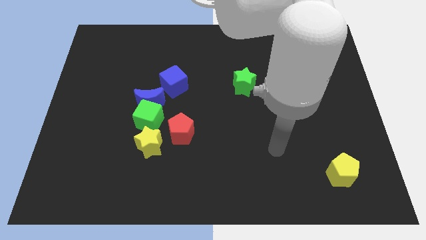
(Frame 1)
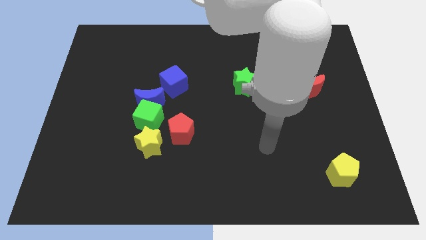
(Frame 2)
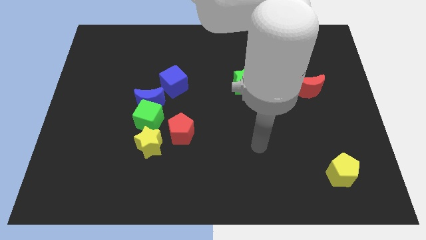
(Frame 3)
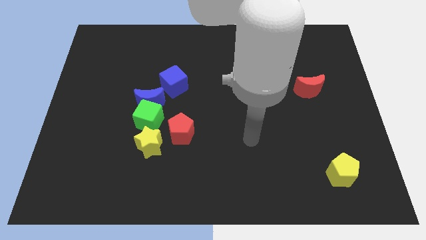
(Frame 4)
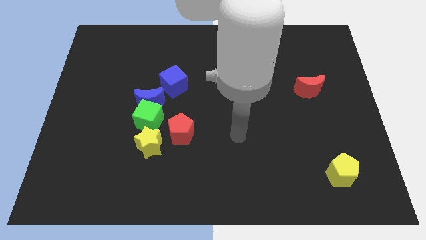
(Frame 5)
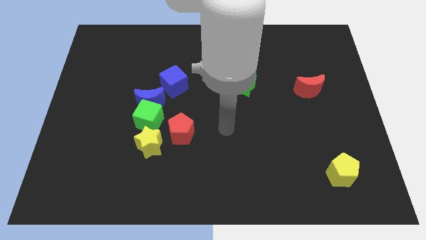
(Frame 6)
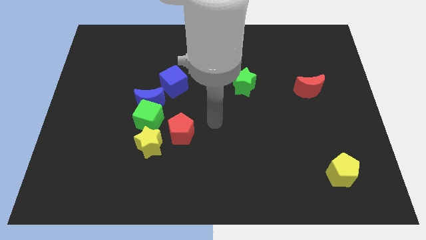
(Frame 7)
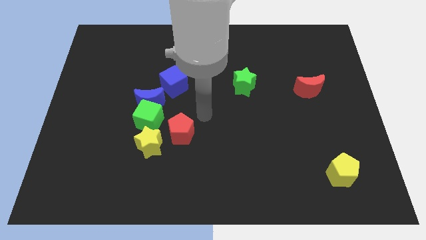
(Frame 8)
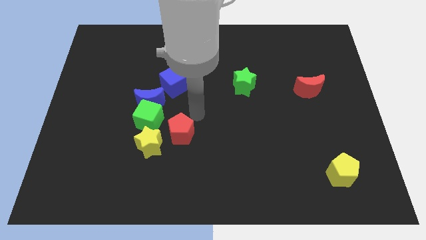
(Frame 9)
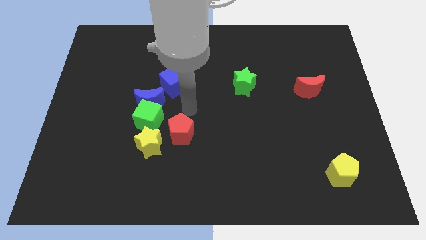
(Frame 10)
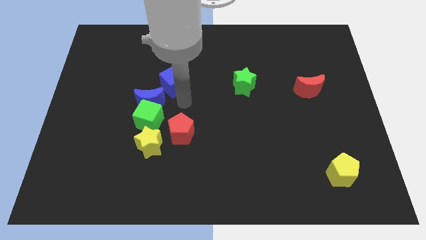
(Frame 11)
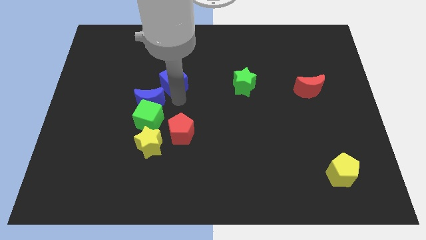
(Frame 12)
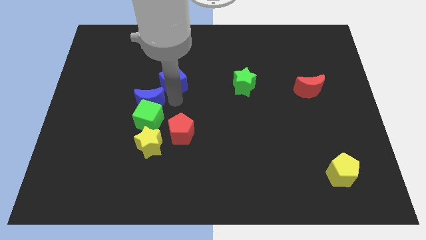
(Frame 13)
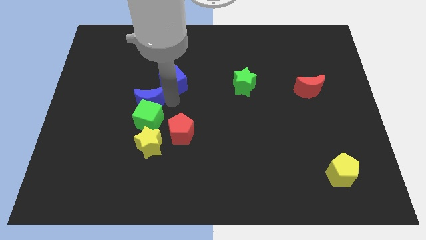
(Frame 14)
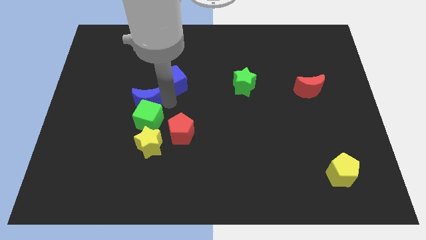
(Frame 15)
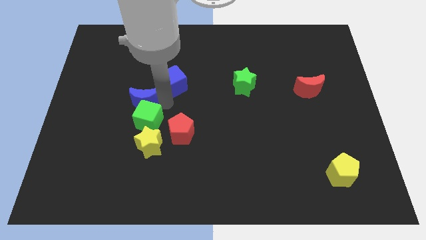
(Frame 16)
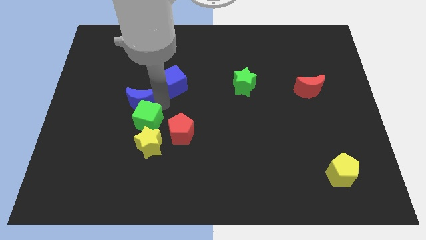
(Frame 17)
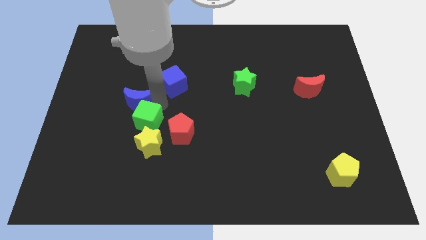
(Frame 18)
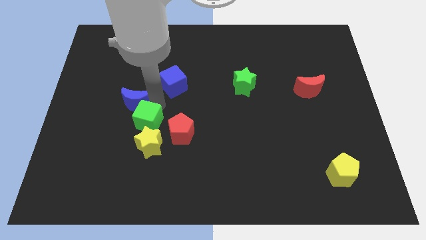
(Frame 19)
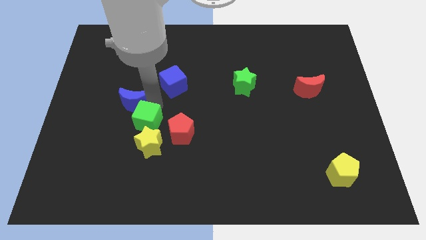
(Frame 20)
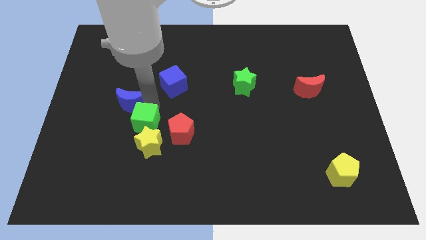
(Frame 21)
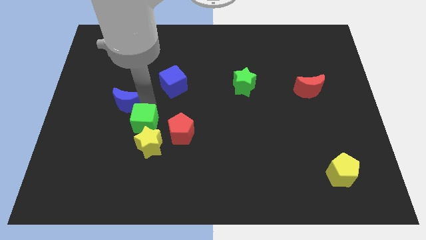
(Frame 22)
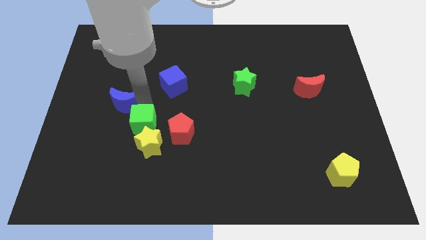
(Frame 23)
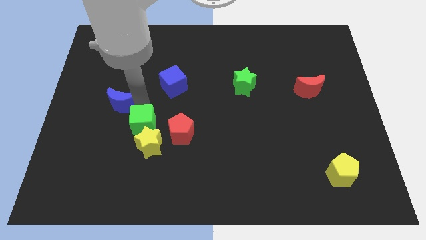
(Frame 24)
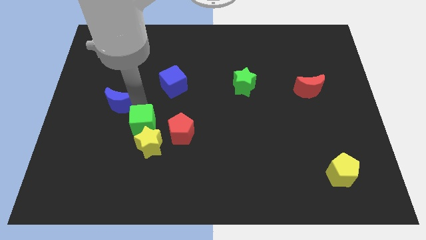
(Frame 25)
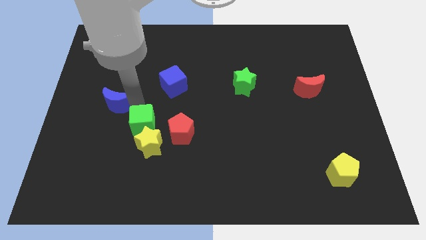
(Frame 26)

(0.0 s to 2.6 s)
separate the blue moon from the green cube and blue cube

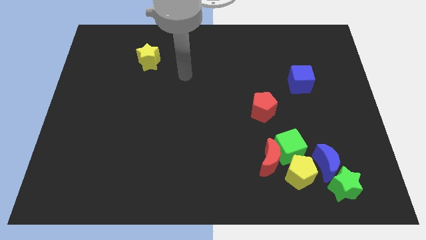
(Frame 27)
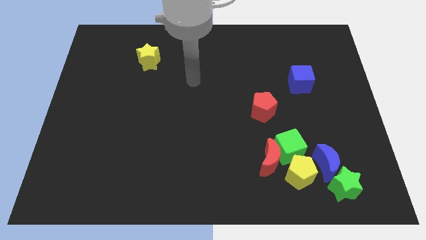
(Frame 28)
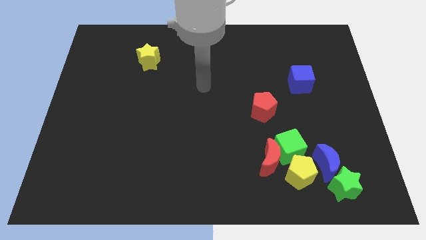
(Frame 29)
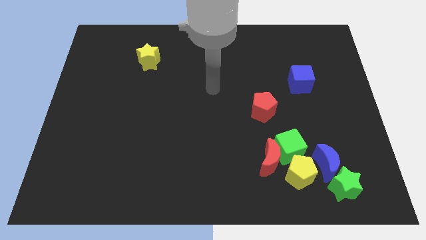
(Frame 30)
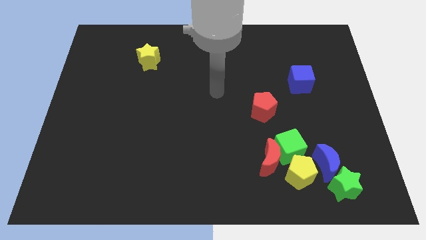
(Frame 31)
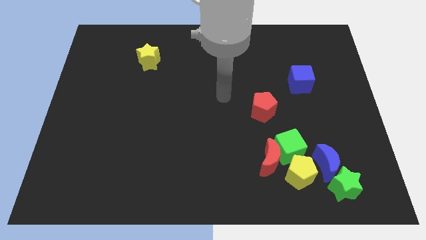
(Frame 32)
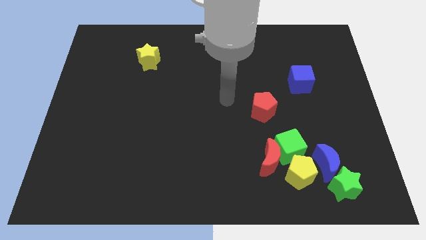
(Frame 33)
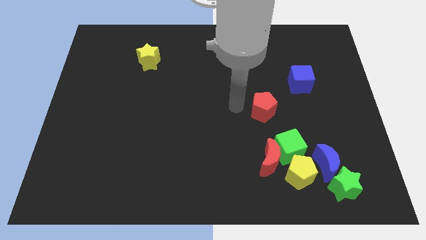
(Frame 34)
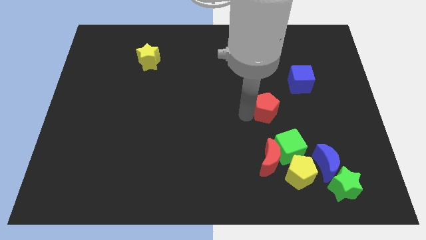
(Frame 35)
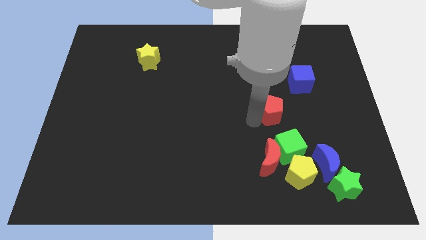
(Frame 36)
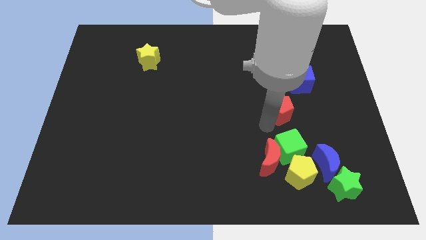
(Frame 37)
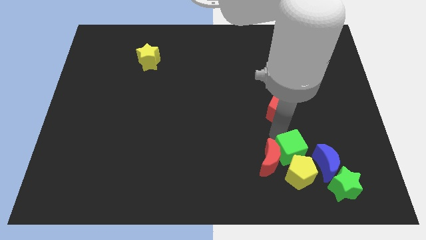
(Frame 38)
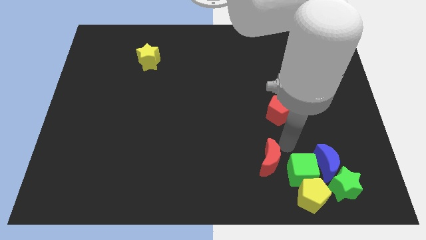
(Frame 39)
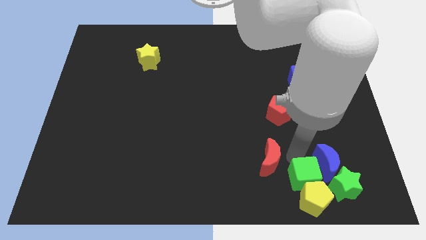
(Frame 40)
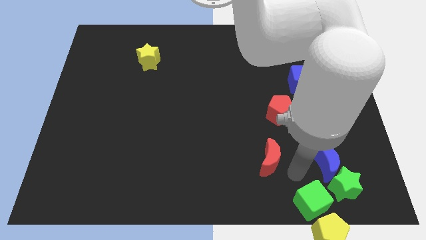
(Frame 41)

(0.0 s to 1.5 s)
move the red moon away from the green cube and yellow pentagon

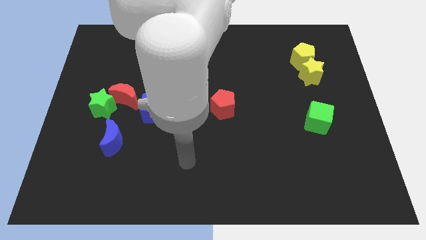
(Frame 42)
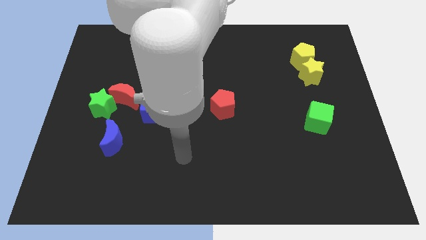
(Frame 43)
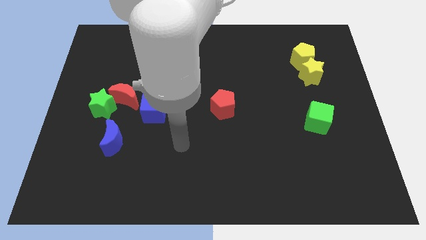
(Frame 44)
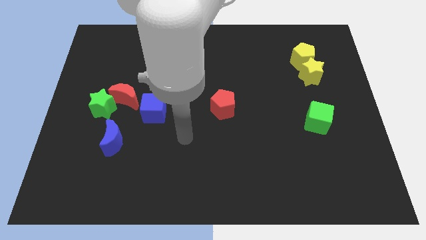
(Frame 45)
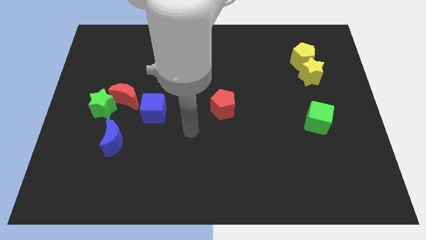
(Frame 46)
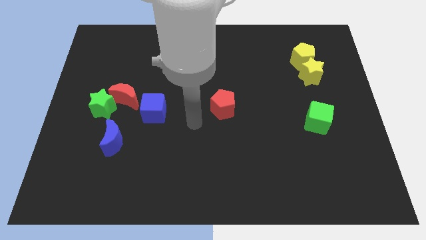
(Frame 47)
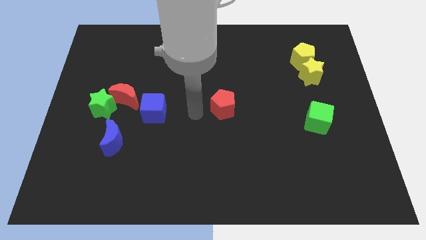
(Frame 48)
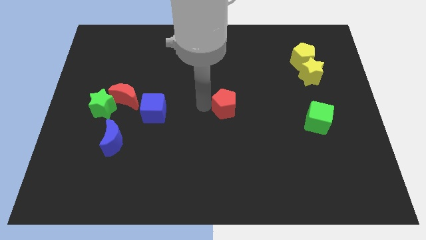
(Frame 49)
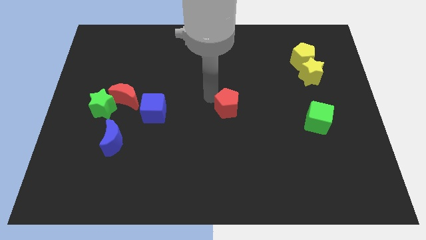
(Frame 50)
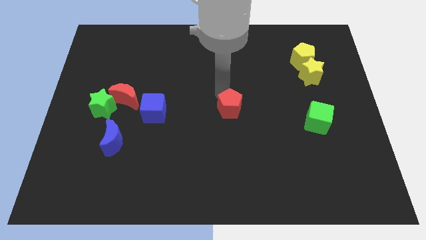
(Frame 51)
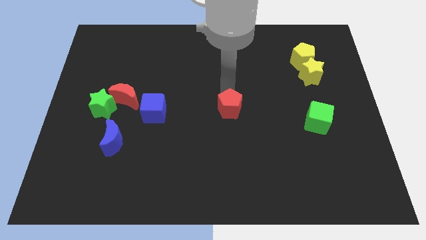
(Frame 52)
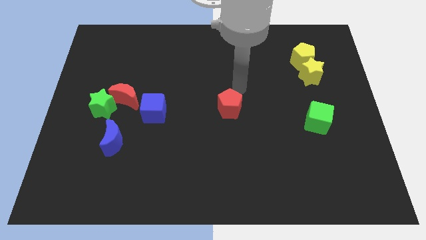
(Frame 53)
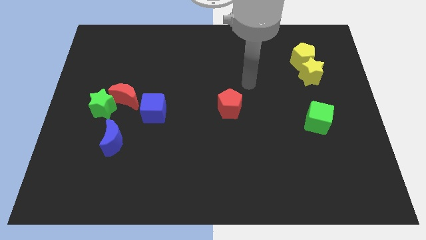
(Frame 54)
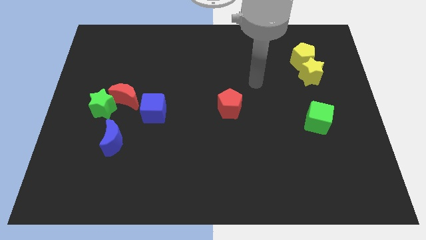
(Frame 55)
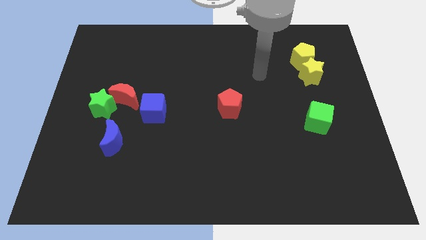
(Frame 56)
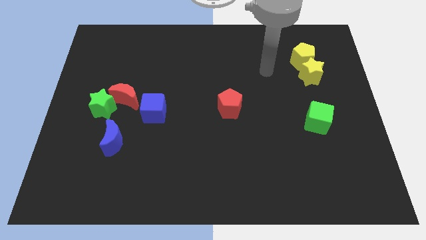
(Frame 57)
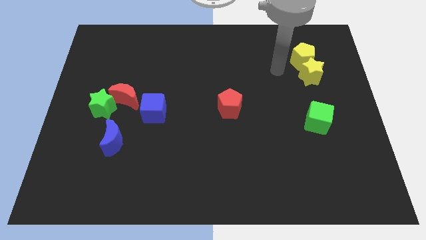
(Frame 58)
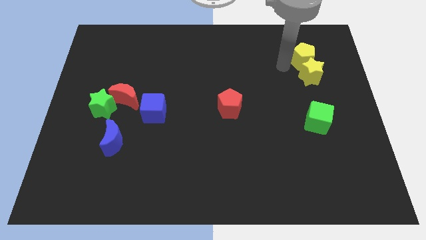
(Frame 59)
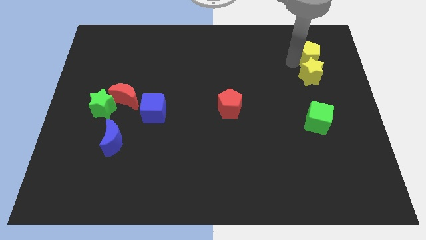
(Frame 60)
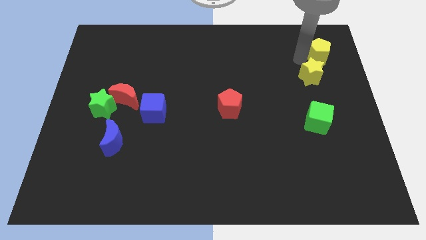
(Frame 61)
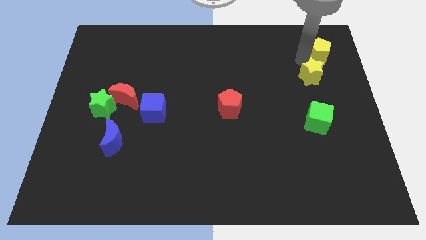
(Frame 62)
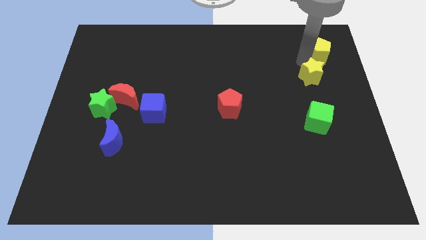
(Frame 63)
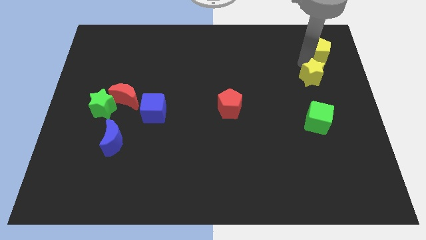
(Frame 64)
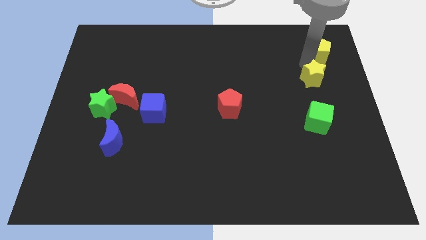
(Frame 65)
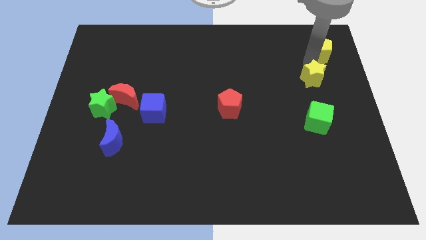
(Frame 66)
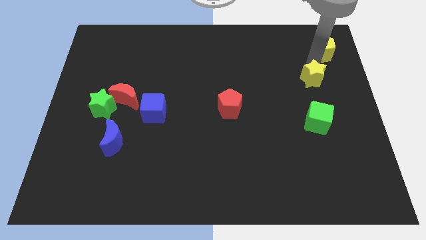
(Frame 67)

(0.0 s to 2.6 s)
separate the yellow star from the yellow pentagon

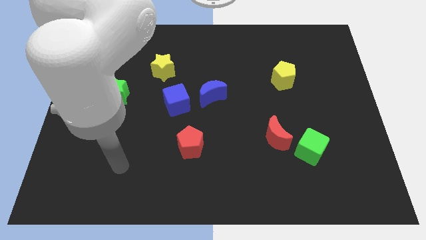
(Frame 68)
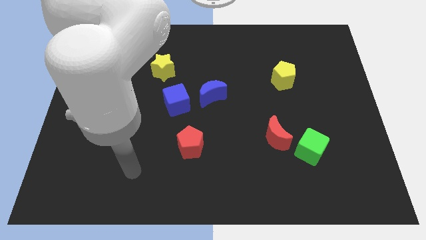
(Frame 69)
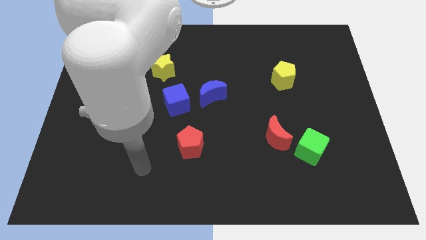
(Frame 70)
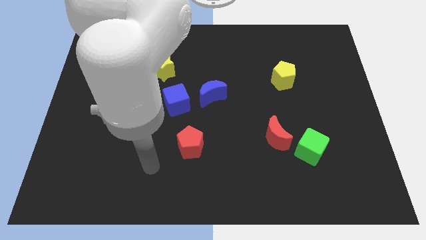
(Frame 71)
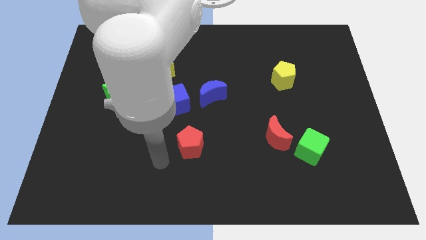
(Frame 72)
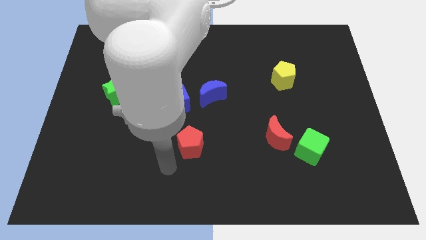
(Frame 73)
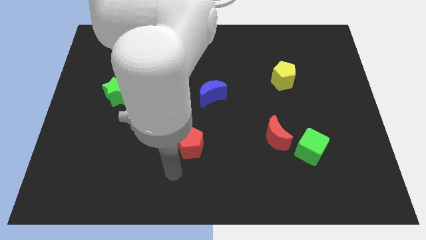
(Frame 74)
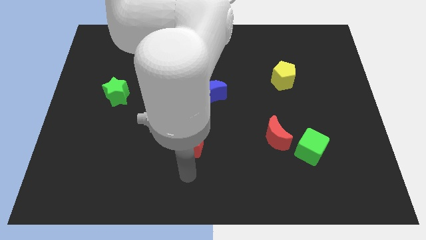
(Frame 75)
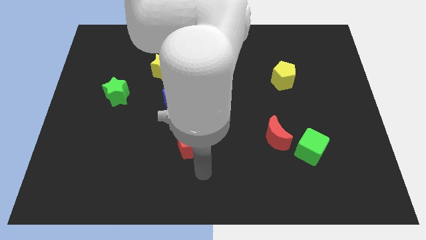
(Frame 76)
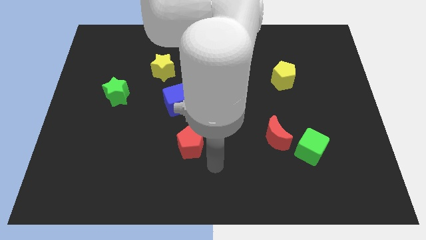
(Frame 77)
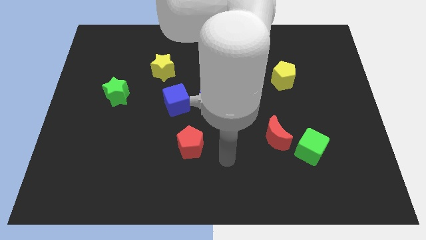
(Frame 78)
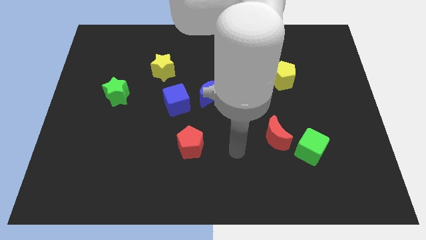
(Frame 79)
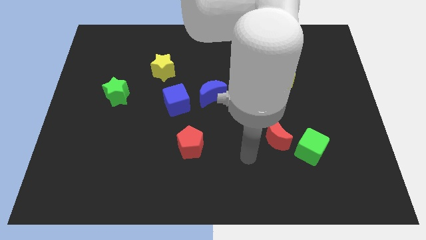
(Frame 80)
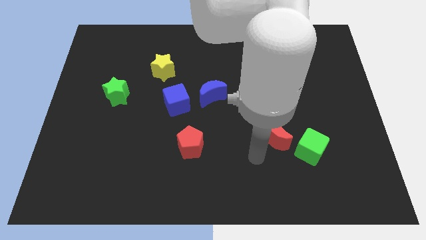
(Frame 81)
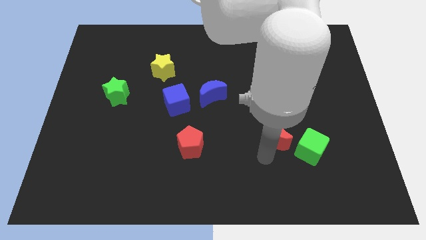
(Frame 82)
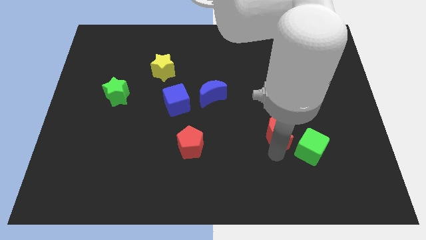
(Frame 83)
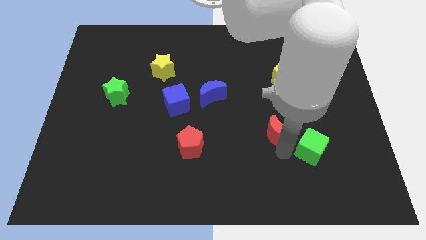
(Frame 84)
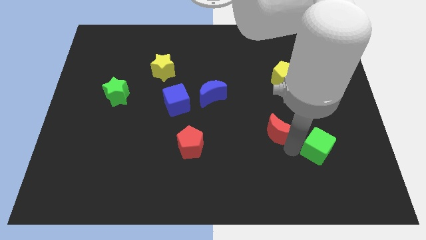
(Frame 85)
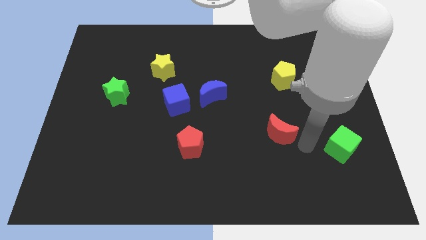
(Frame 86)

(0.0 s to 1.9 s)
pull the red moon apart from the green cube

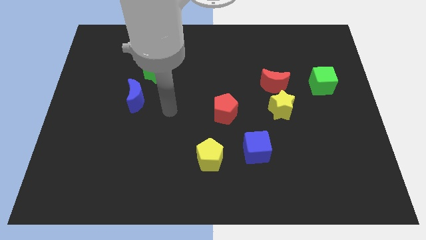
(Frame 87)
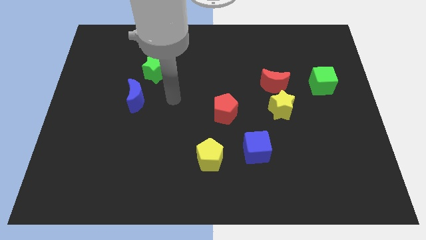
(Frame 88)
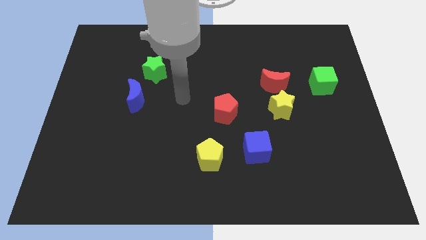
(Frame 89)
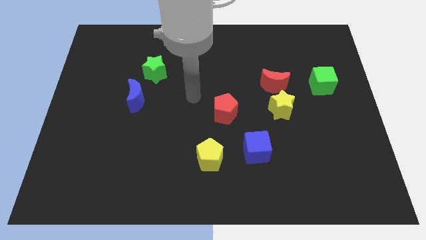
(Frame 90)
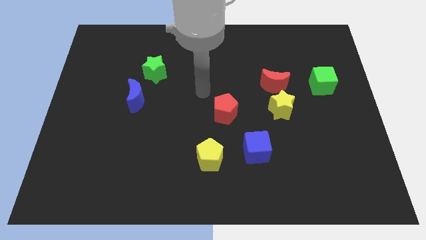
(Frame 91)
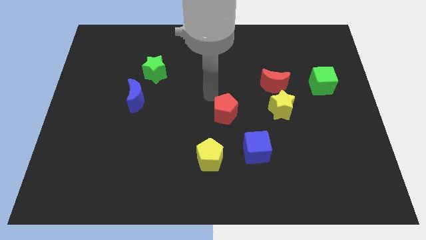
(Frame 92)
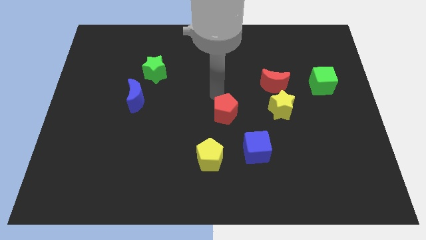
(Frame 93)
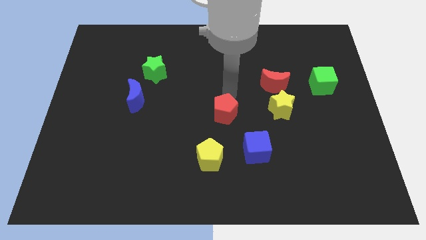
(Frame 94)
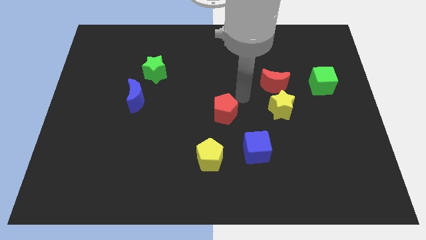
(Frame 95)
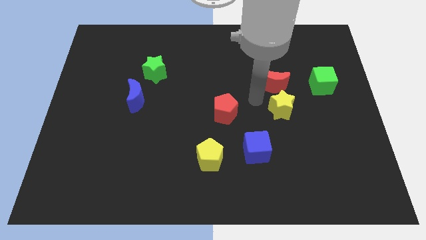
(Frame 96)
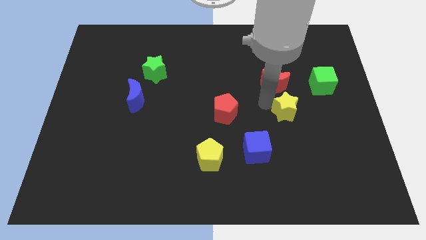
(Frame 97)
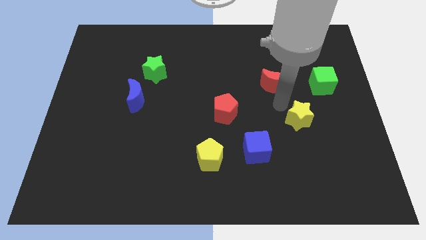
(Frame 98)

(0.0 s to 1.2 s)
pull the red moon apart from the yellow star
